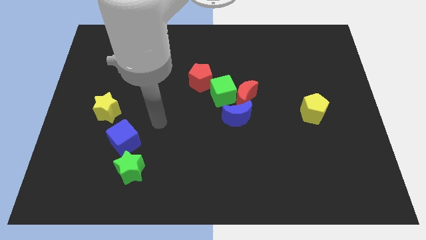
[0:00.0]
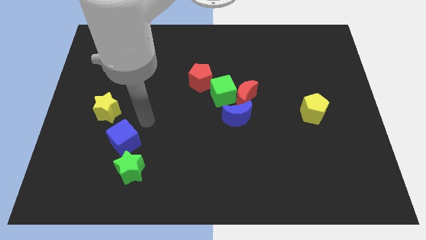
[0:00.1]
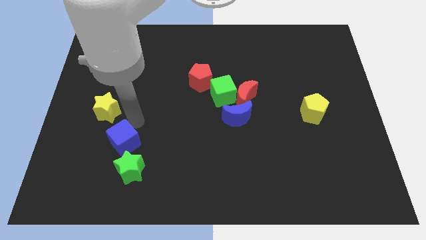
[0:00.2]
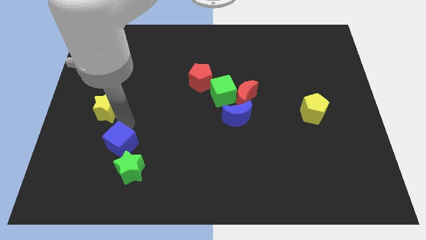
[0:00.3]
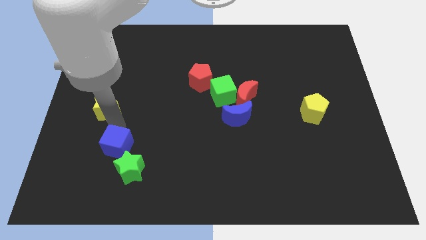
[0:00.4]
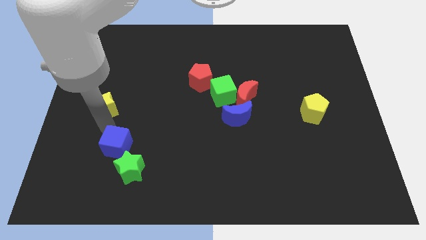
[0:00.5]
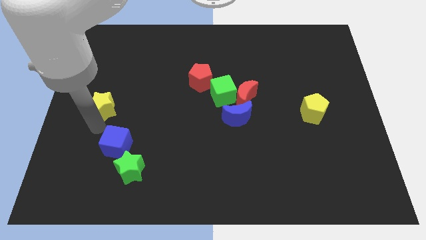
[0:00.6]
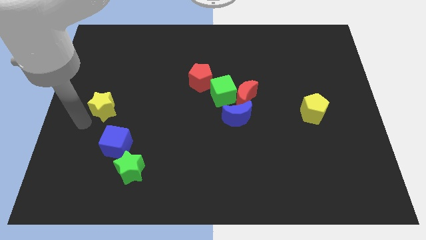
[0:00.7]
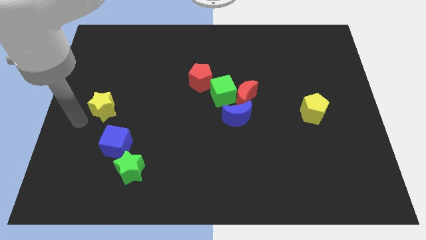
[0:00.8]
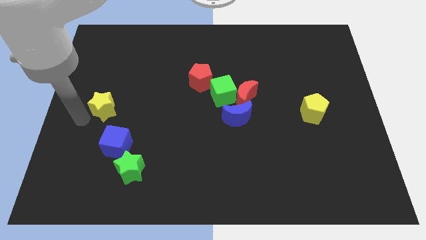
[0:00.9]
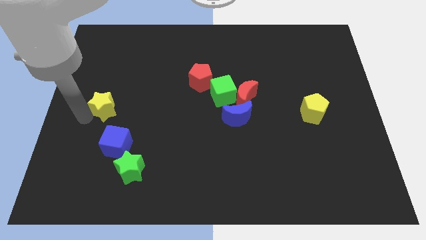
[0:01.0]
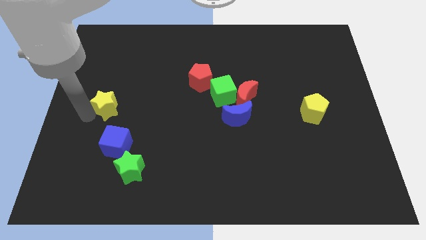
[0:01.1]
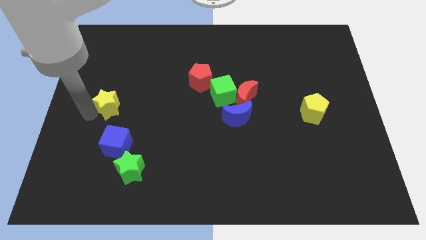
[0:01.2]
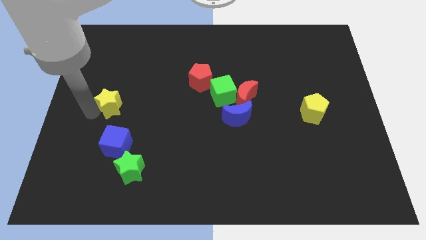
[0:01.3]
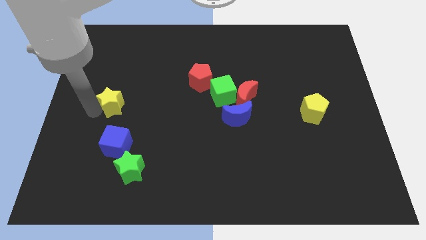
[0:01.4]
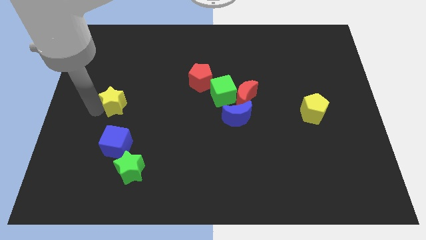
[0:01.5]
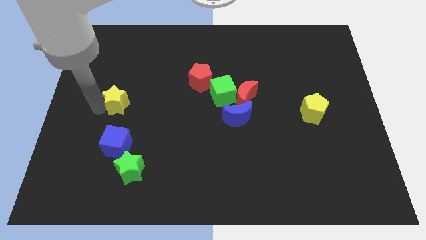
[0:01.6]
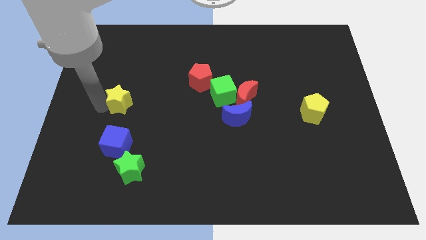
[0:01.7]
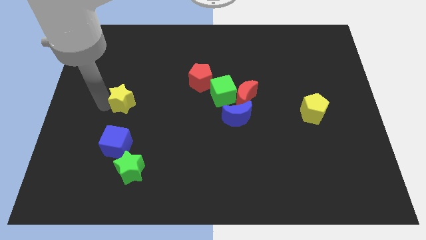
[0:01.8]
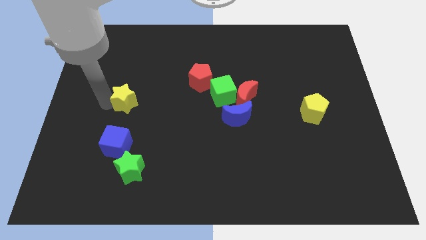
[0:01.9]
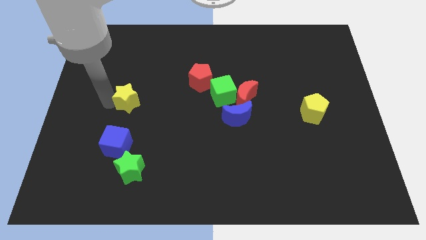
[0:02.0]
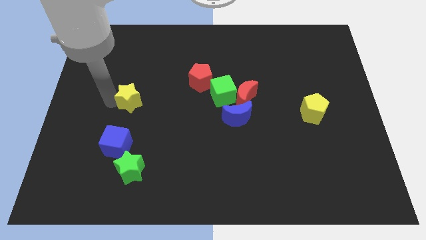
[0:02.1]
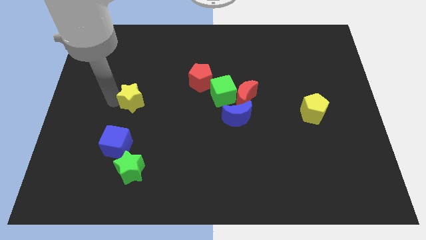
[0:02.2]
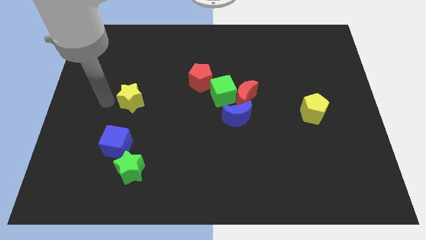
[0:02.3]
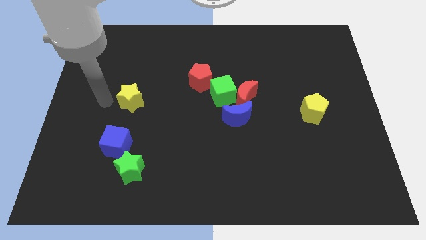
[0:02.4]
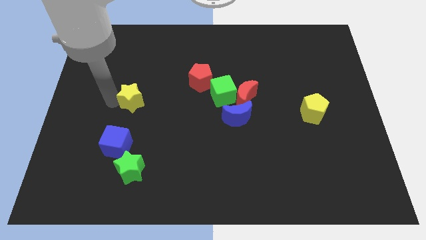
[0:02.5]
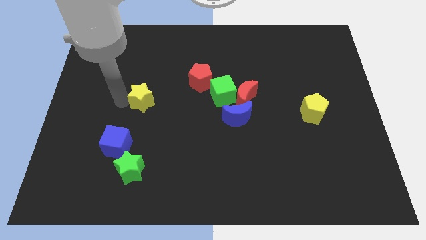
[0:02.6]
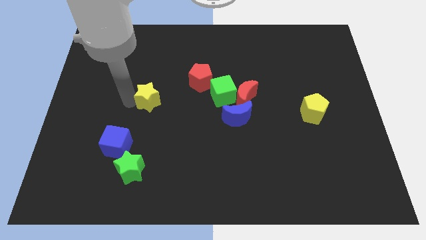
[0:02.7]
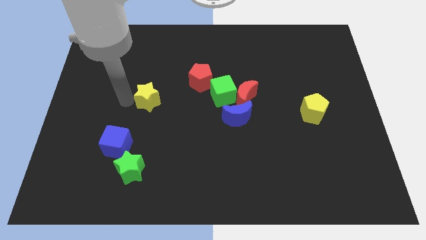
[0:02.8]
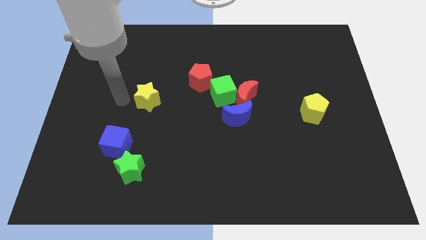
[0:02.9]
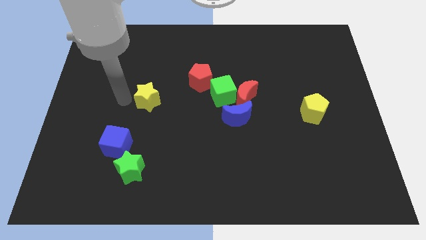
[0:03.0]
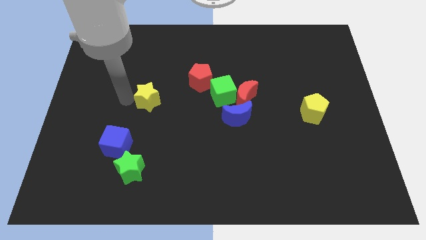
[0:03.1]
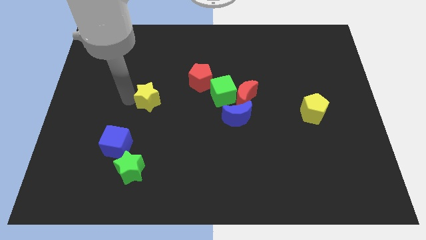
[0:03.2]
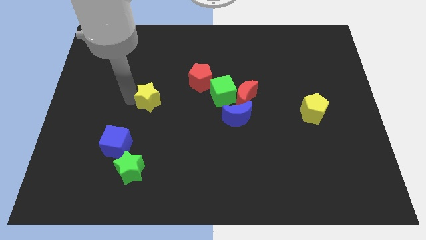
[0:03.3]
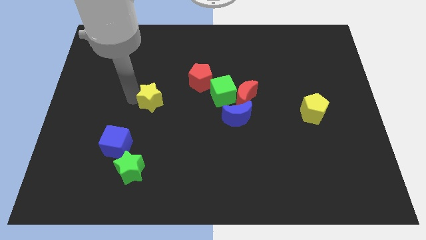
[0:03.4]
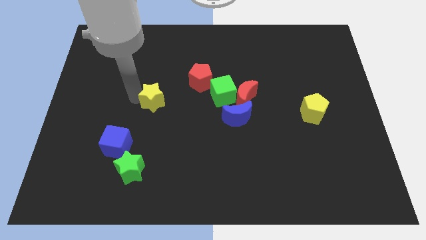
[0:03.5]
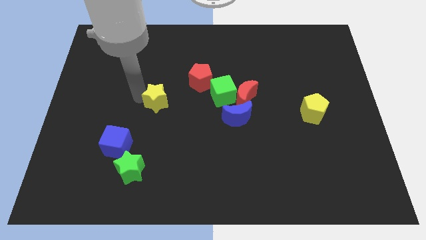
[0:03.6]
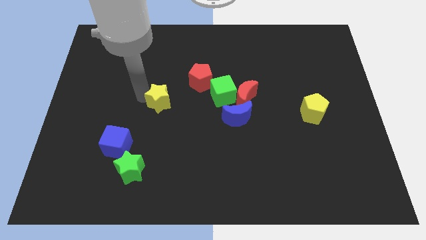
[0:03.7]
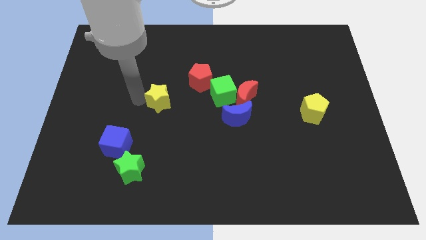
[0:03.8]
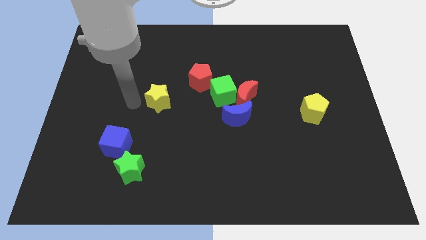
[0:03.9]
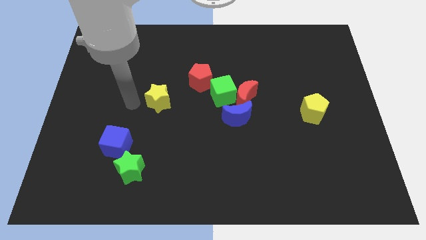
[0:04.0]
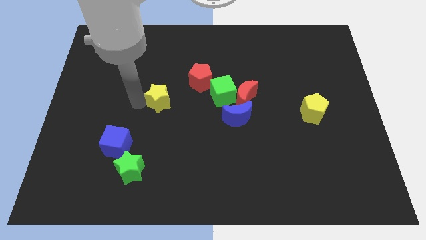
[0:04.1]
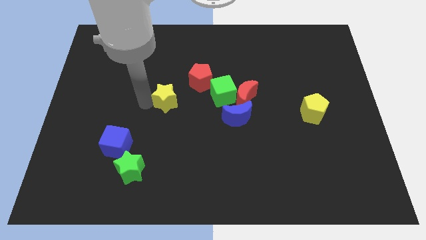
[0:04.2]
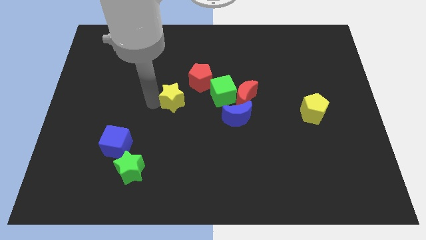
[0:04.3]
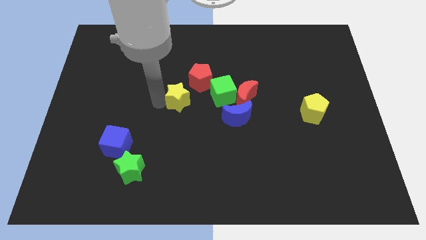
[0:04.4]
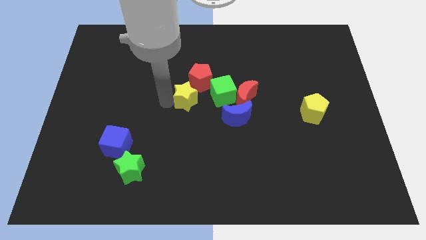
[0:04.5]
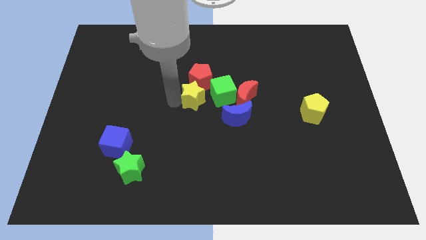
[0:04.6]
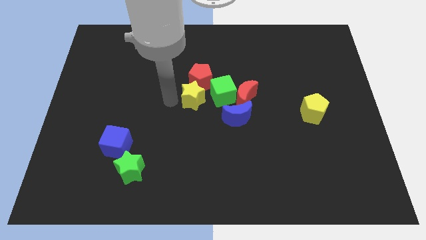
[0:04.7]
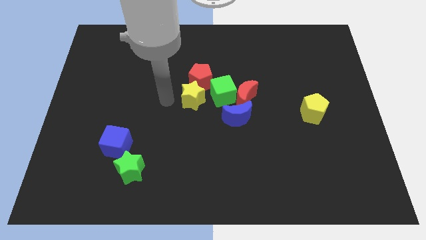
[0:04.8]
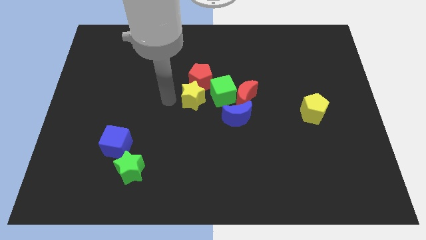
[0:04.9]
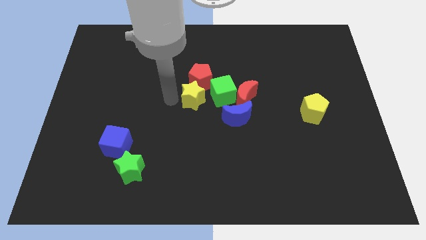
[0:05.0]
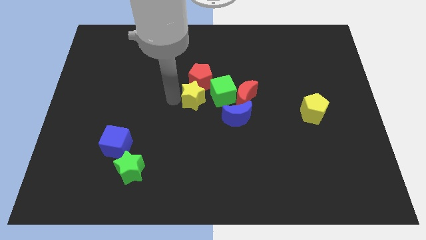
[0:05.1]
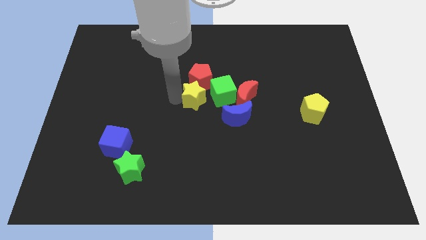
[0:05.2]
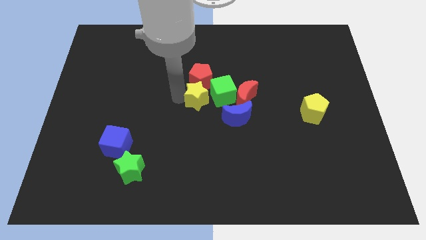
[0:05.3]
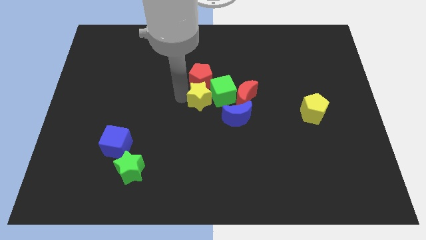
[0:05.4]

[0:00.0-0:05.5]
put the yellow star towards the green cube

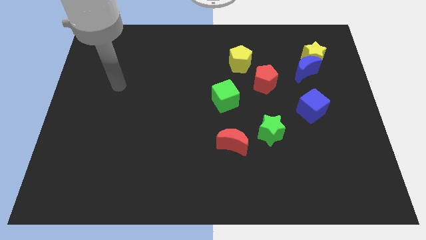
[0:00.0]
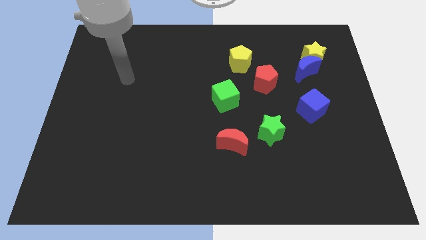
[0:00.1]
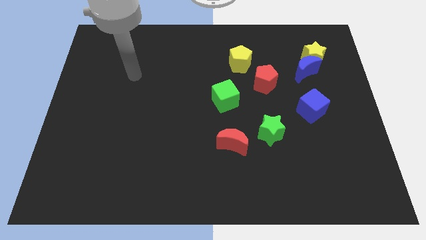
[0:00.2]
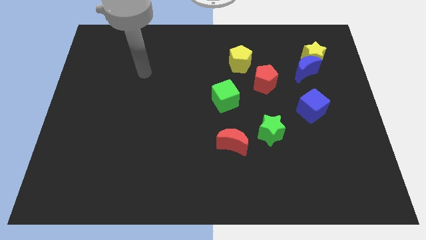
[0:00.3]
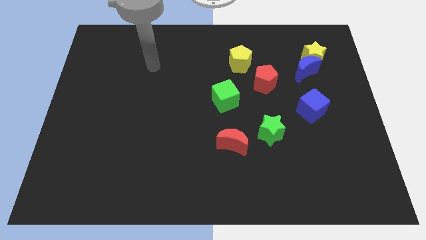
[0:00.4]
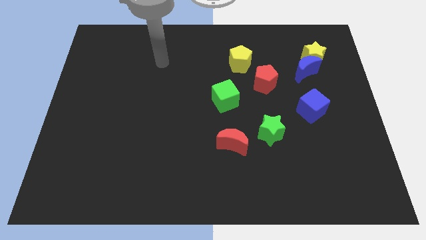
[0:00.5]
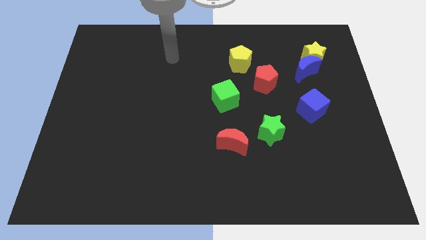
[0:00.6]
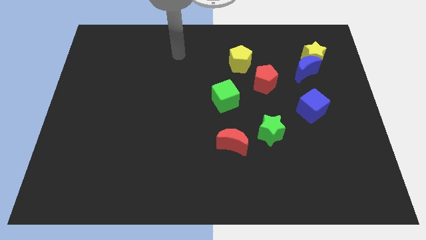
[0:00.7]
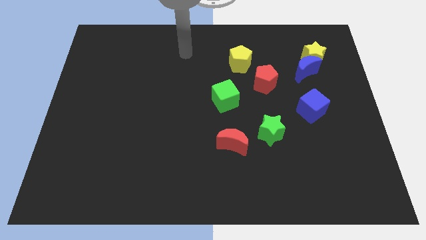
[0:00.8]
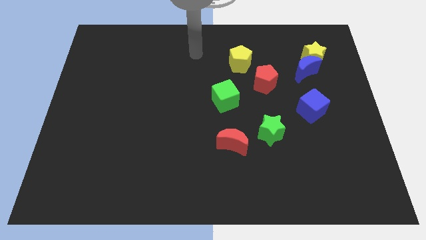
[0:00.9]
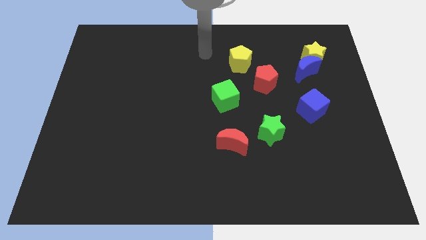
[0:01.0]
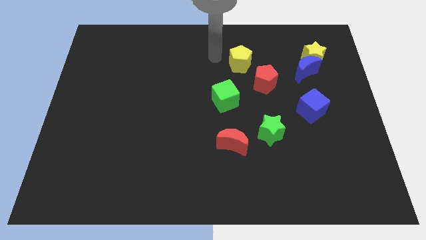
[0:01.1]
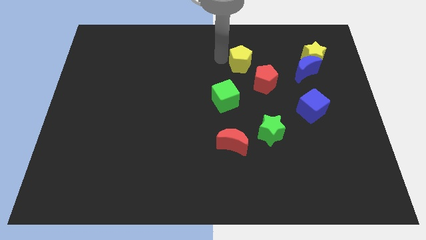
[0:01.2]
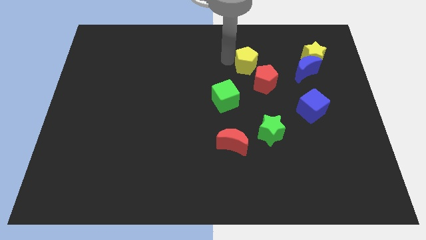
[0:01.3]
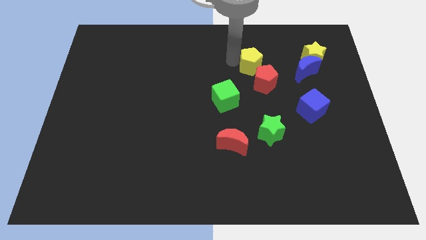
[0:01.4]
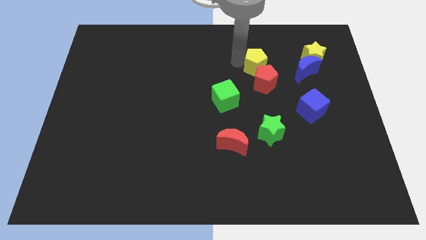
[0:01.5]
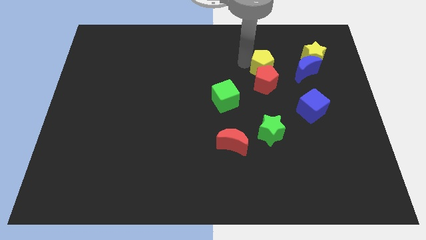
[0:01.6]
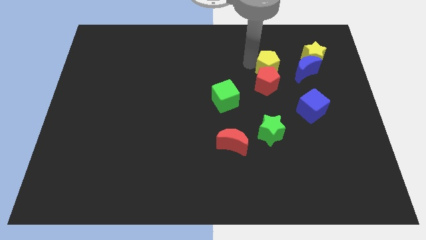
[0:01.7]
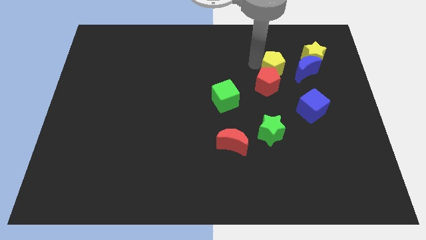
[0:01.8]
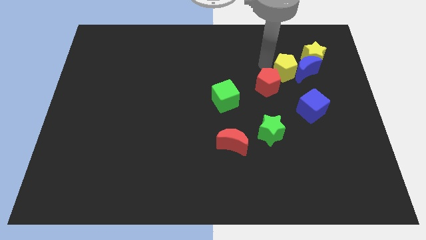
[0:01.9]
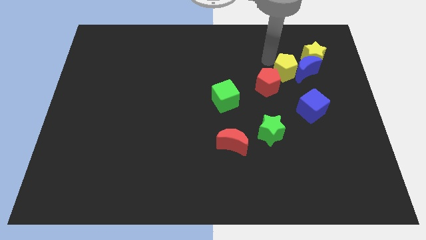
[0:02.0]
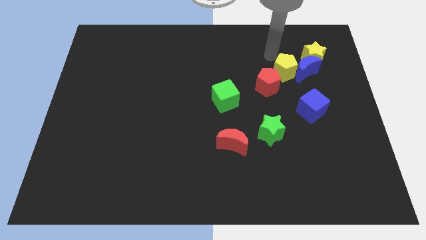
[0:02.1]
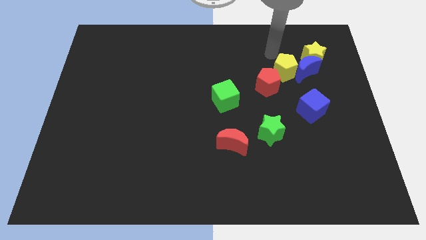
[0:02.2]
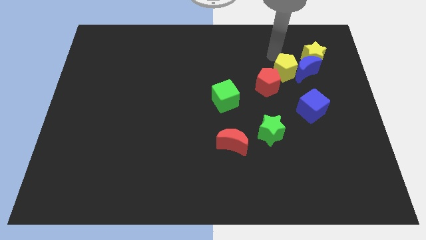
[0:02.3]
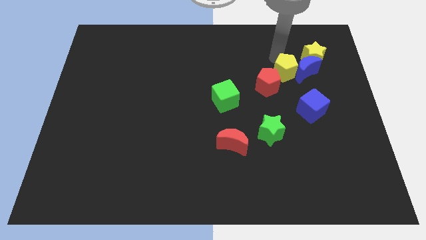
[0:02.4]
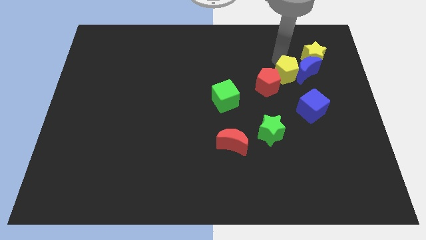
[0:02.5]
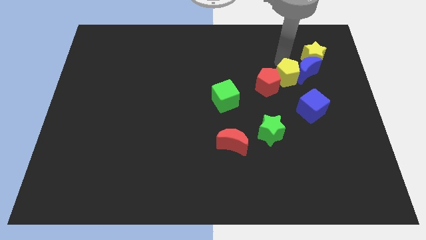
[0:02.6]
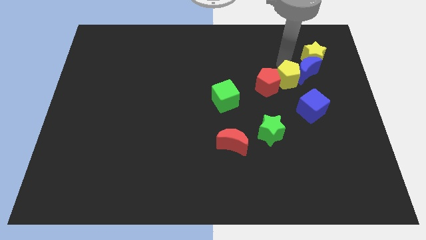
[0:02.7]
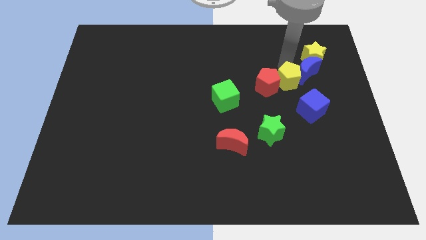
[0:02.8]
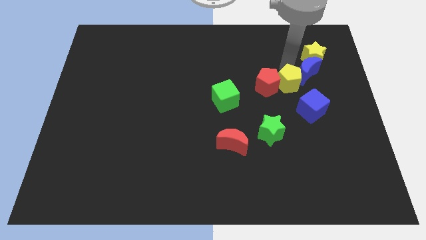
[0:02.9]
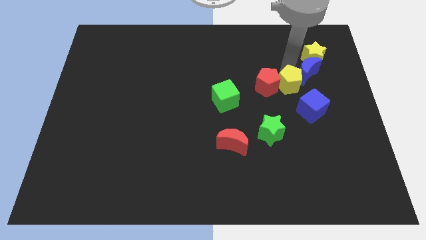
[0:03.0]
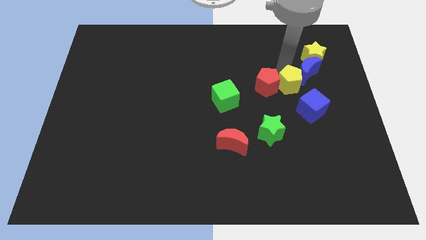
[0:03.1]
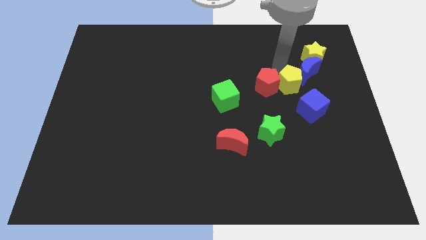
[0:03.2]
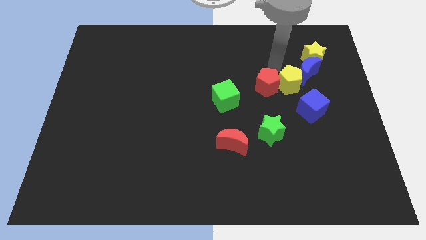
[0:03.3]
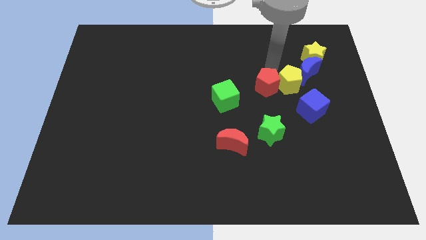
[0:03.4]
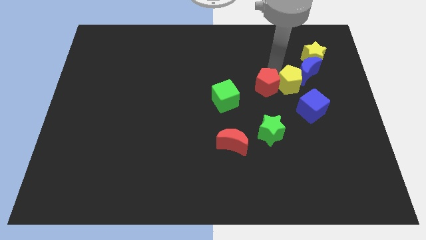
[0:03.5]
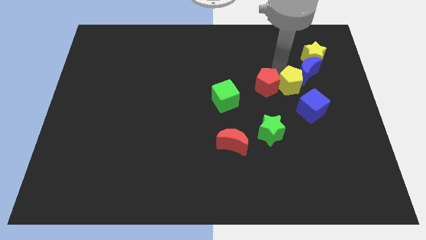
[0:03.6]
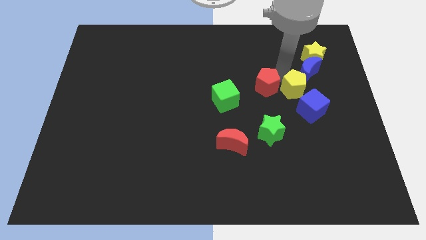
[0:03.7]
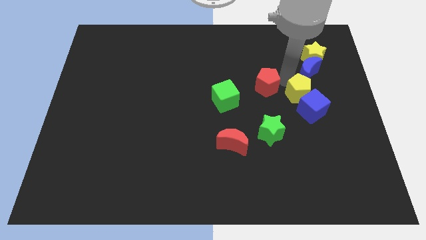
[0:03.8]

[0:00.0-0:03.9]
move the yellow pentagon close to the blue cube
